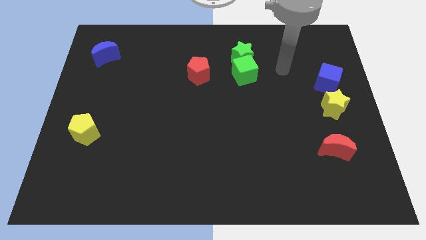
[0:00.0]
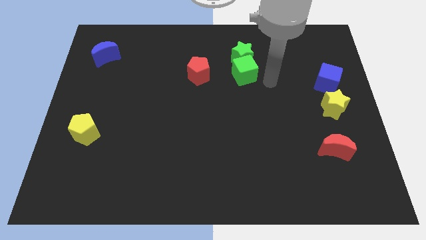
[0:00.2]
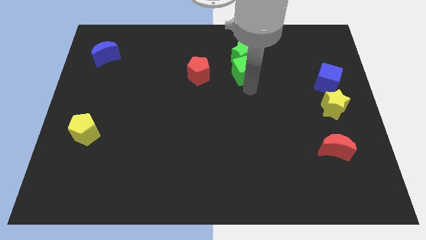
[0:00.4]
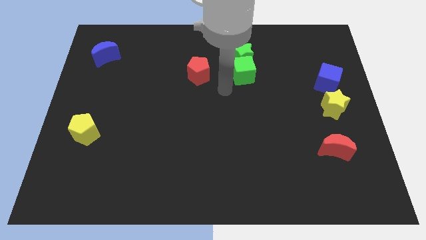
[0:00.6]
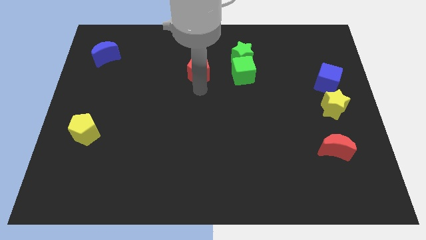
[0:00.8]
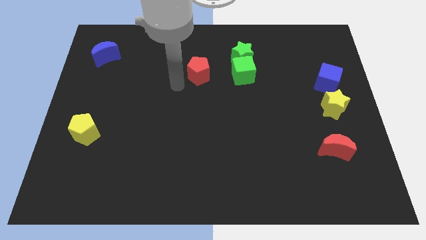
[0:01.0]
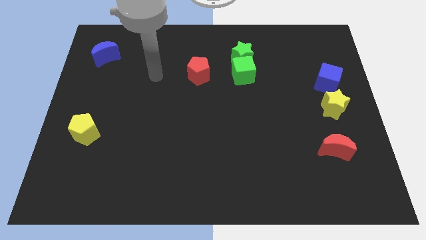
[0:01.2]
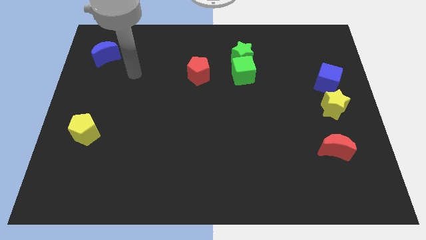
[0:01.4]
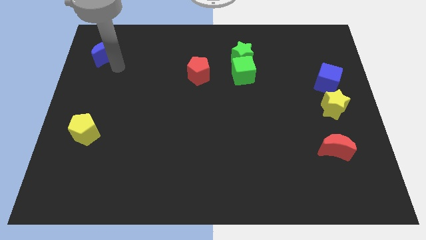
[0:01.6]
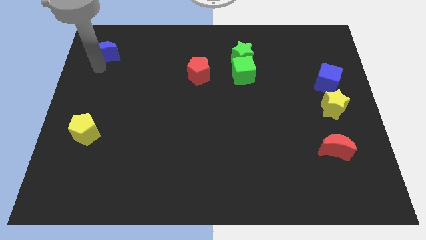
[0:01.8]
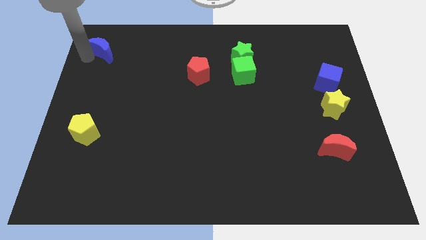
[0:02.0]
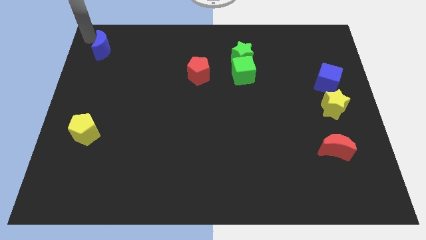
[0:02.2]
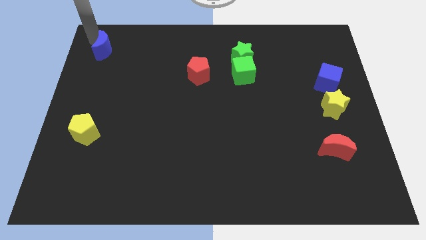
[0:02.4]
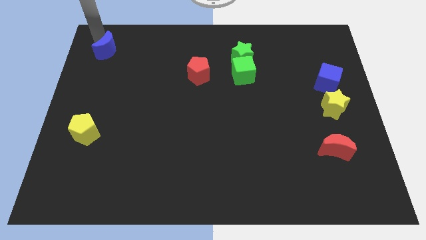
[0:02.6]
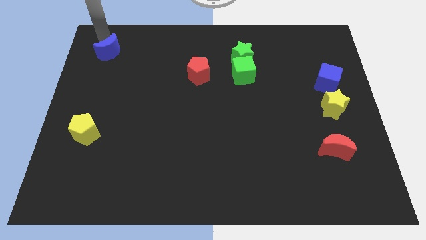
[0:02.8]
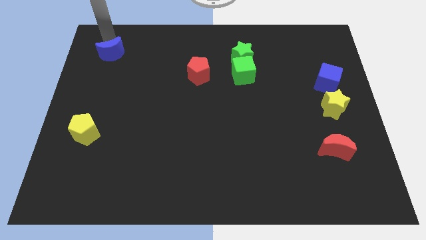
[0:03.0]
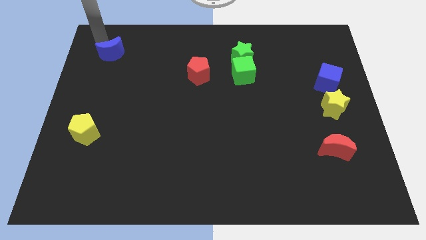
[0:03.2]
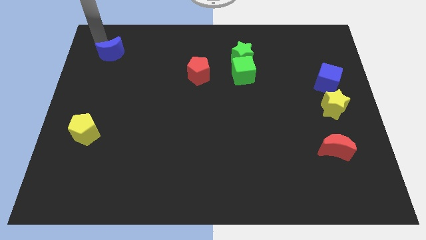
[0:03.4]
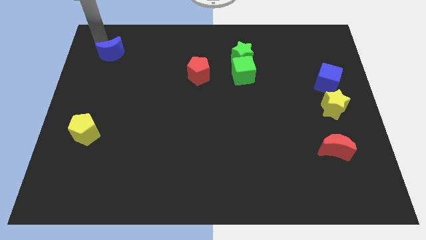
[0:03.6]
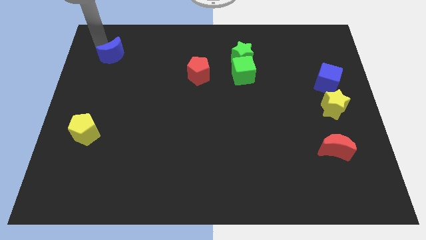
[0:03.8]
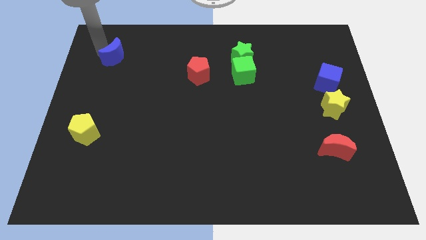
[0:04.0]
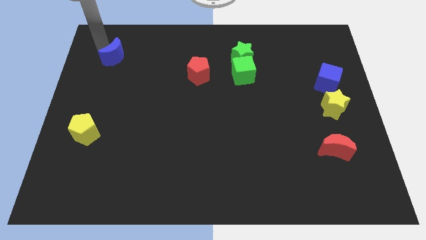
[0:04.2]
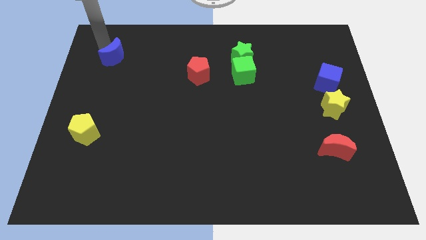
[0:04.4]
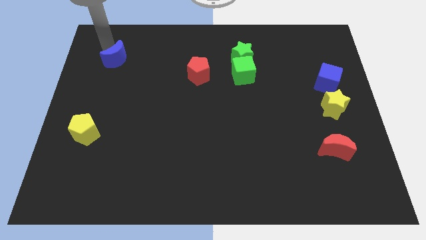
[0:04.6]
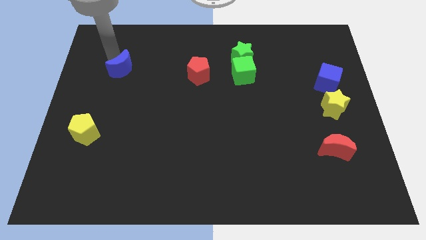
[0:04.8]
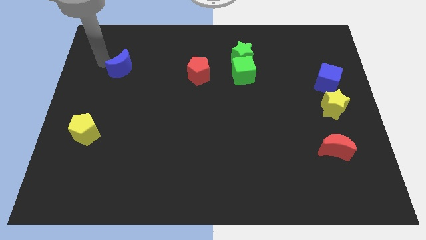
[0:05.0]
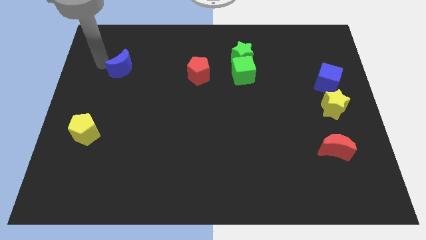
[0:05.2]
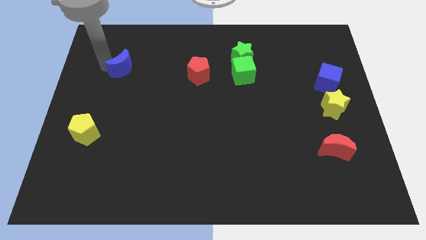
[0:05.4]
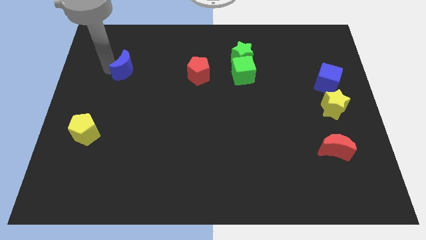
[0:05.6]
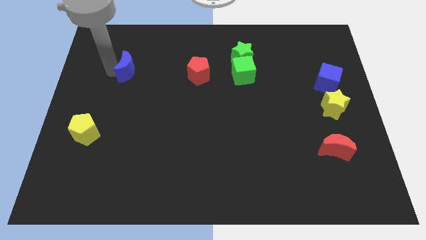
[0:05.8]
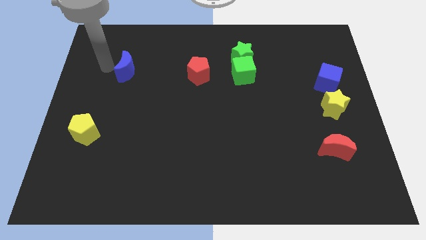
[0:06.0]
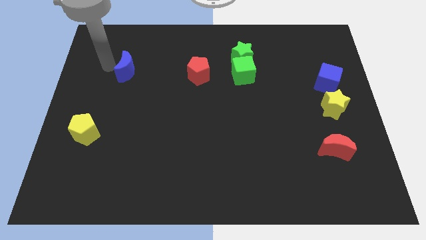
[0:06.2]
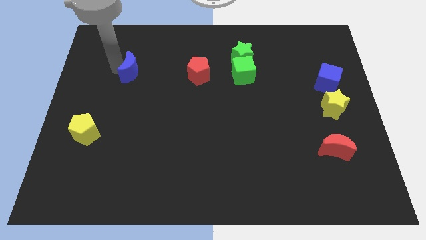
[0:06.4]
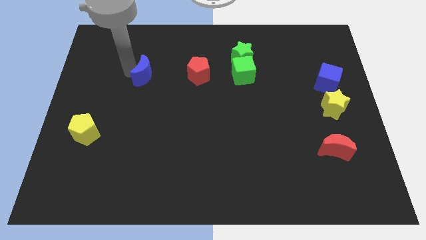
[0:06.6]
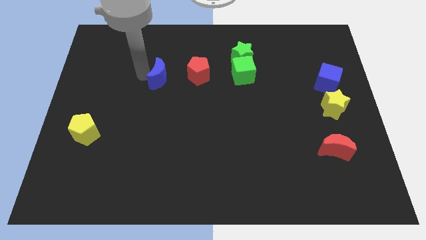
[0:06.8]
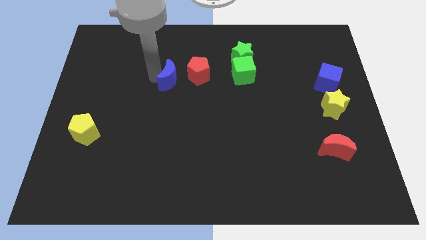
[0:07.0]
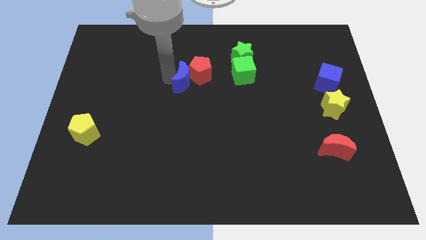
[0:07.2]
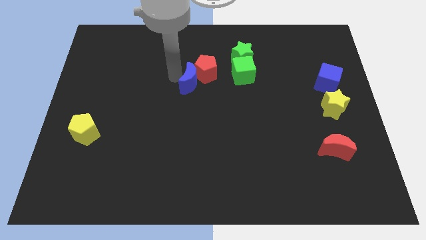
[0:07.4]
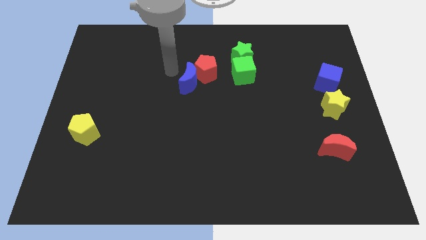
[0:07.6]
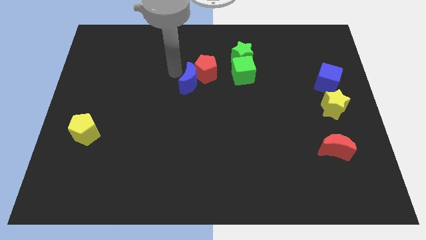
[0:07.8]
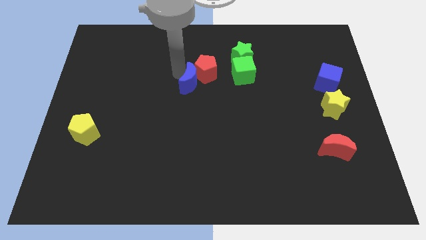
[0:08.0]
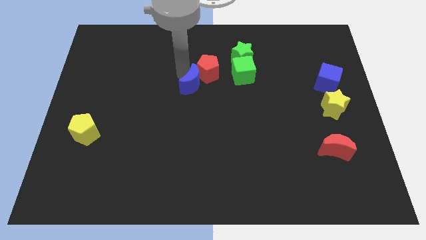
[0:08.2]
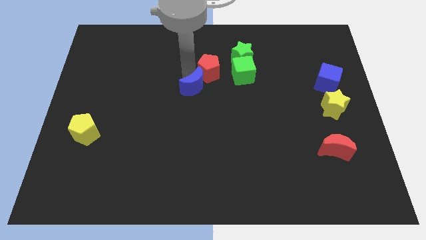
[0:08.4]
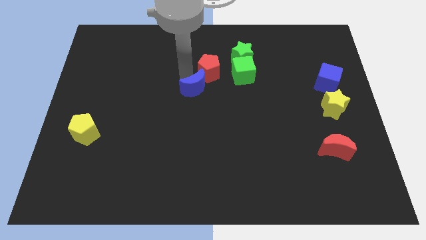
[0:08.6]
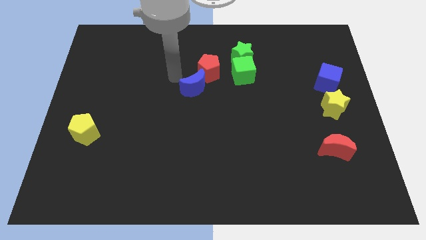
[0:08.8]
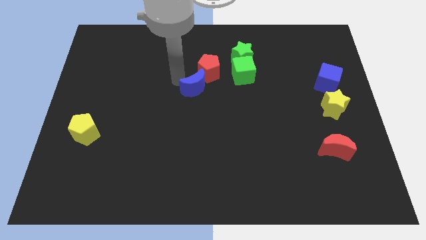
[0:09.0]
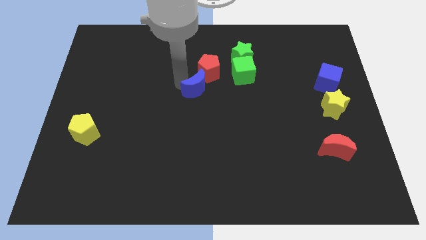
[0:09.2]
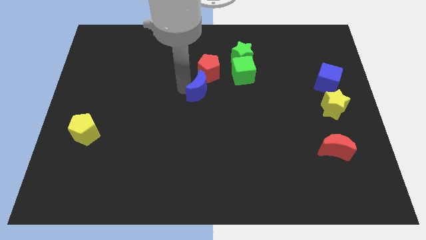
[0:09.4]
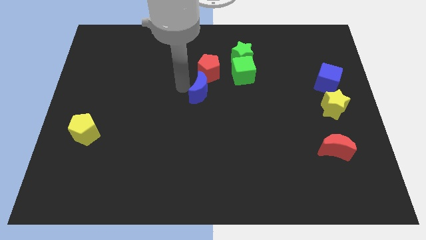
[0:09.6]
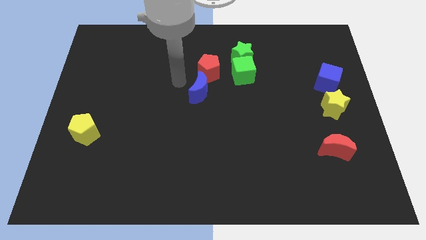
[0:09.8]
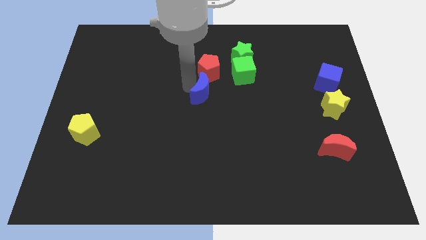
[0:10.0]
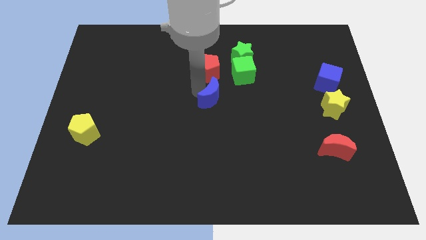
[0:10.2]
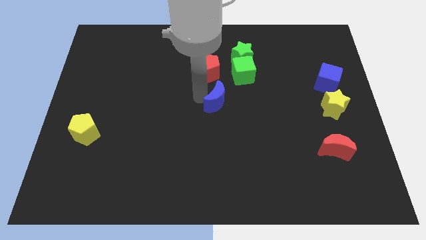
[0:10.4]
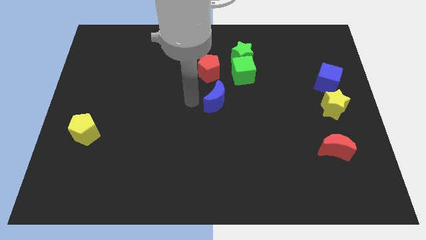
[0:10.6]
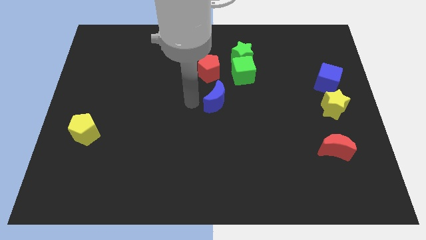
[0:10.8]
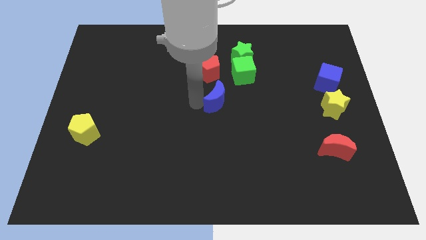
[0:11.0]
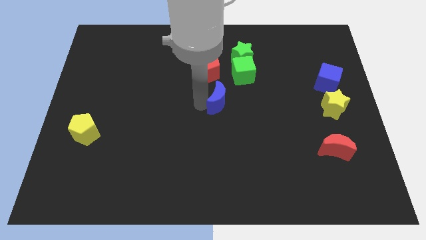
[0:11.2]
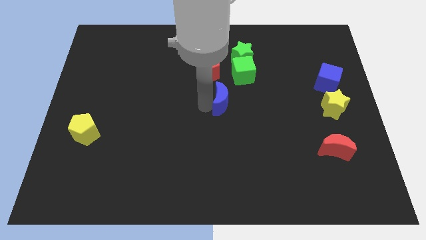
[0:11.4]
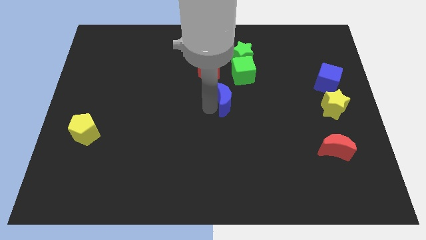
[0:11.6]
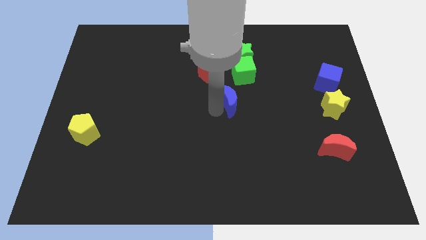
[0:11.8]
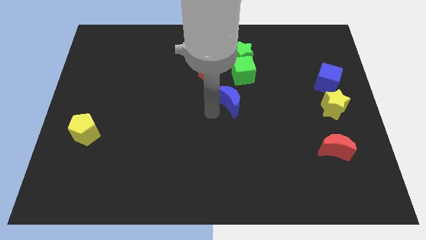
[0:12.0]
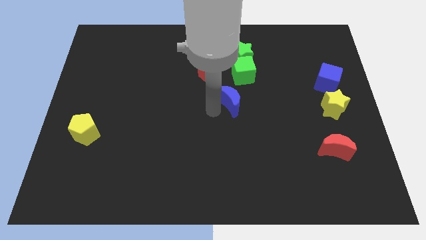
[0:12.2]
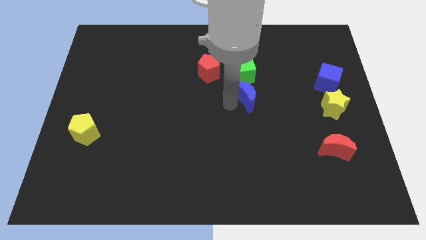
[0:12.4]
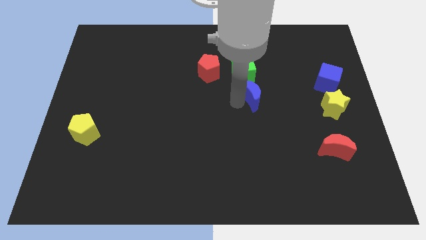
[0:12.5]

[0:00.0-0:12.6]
push the blue moon to the bottom right of the green cube
